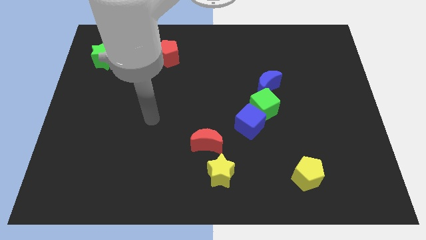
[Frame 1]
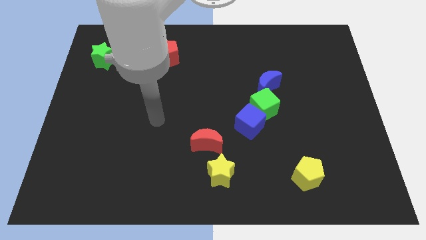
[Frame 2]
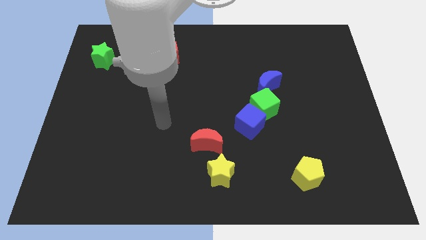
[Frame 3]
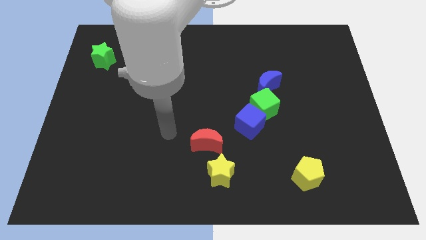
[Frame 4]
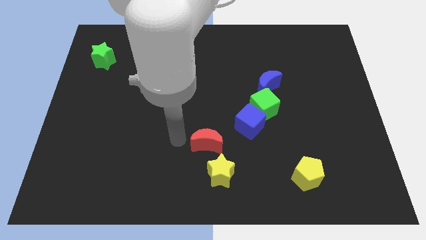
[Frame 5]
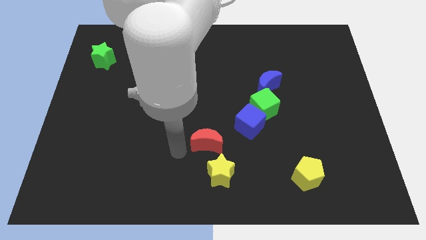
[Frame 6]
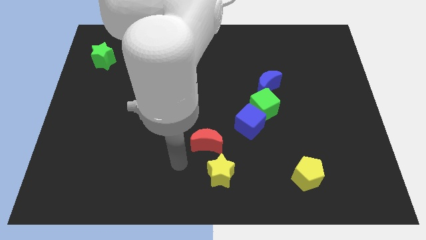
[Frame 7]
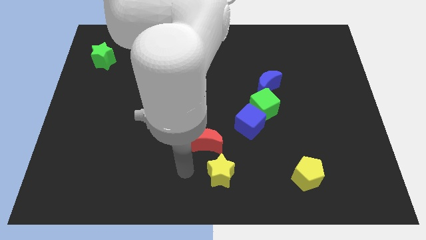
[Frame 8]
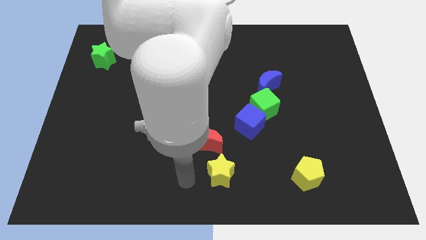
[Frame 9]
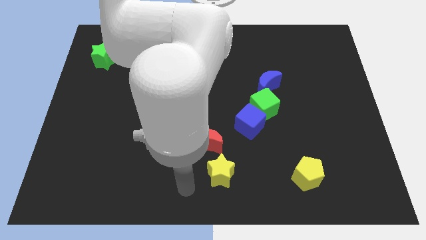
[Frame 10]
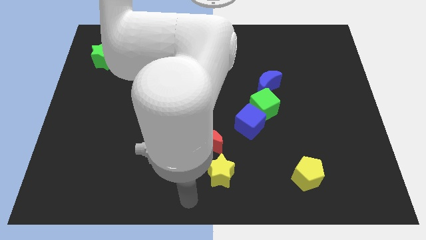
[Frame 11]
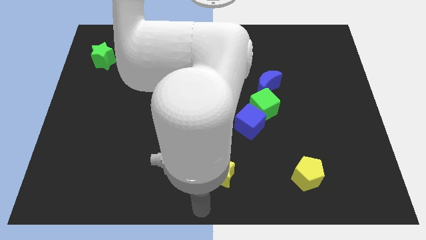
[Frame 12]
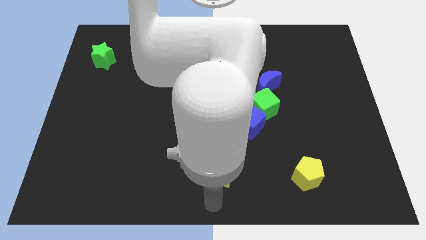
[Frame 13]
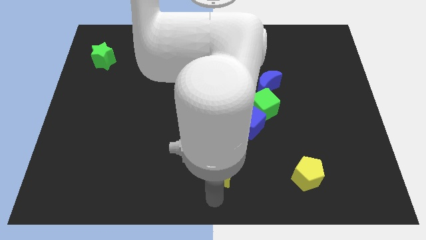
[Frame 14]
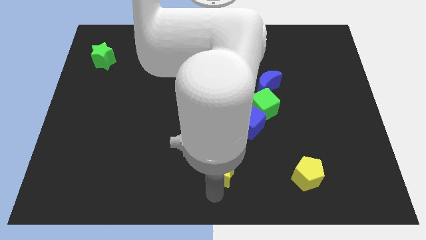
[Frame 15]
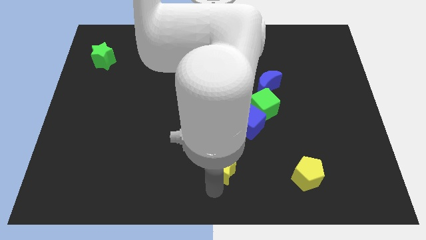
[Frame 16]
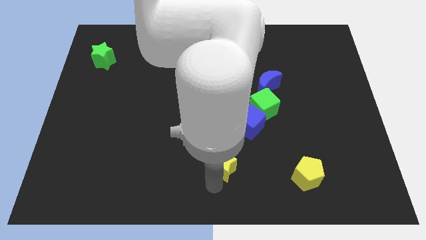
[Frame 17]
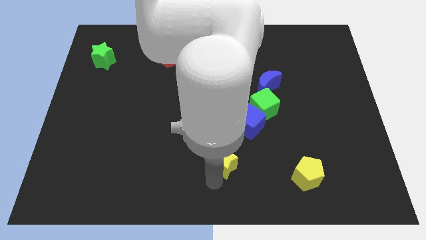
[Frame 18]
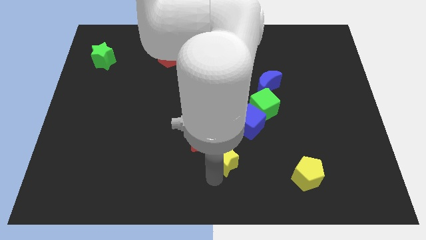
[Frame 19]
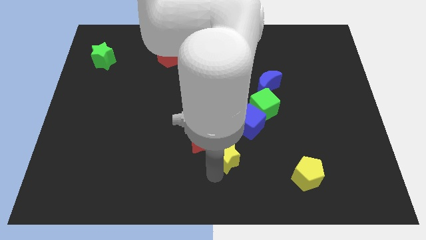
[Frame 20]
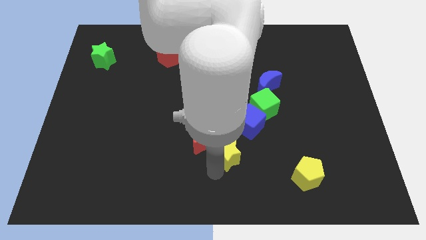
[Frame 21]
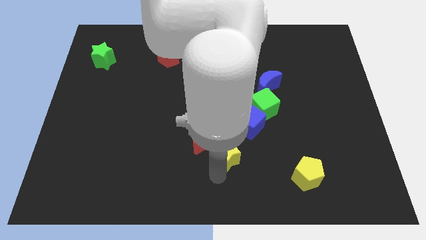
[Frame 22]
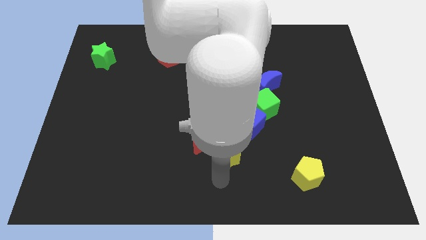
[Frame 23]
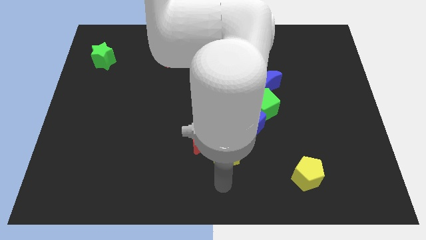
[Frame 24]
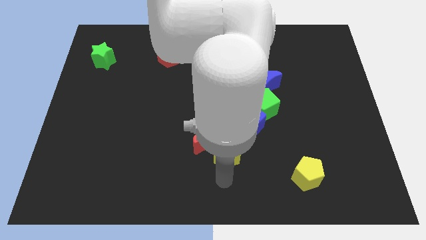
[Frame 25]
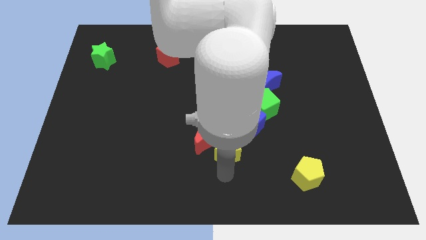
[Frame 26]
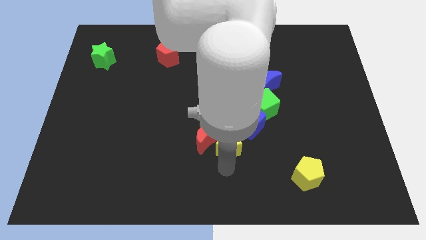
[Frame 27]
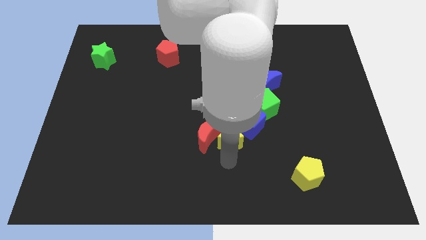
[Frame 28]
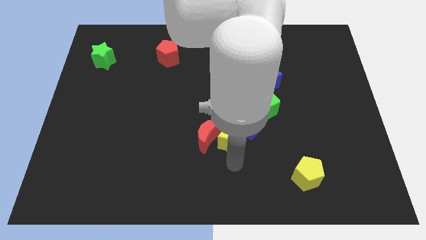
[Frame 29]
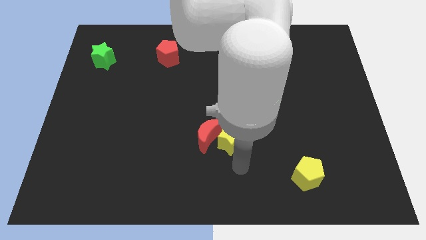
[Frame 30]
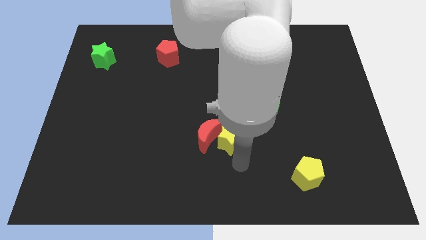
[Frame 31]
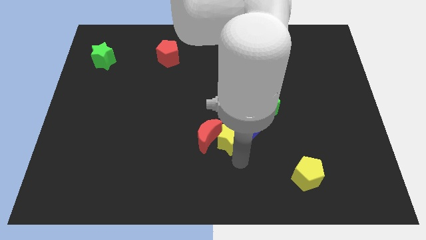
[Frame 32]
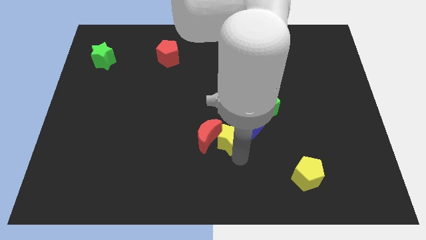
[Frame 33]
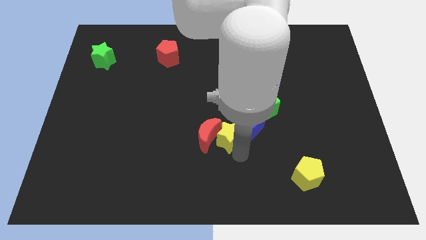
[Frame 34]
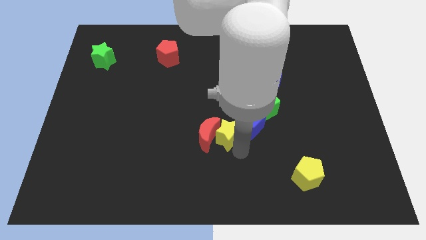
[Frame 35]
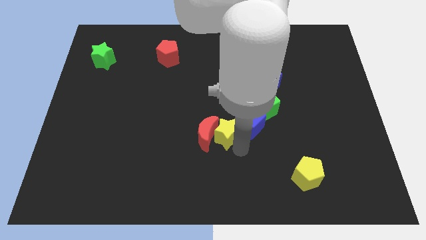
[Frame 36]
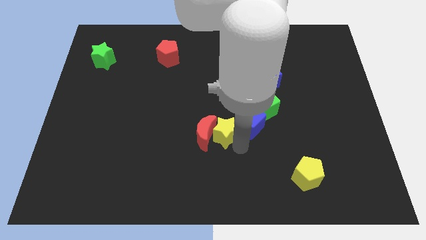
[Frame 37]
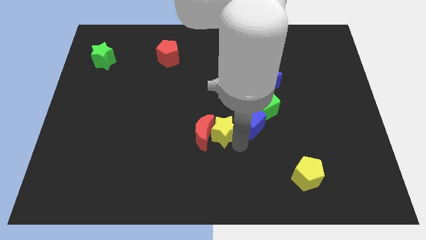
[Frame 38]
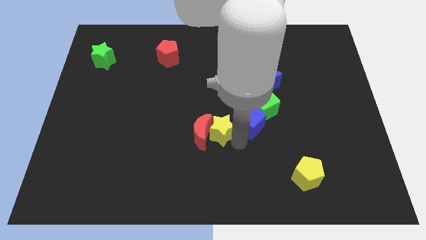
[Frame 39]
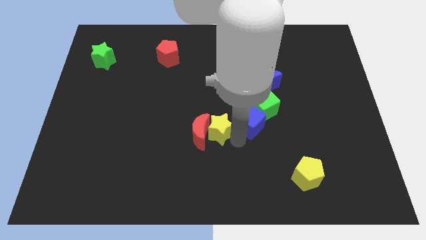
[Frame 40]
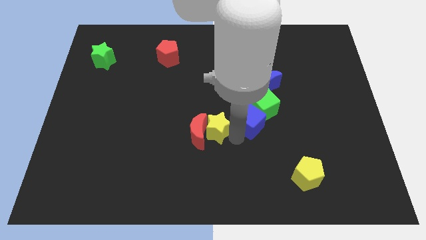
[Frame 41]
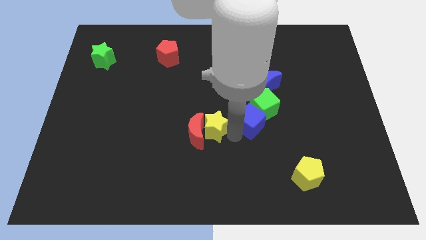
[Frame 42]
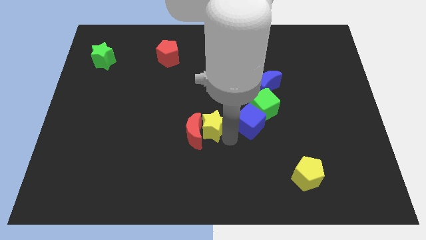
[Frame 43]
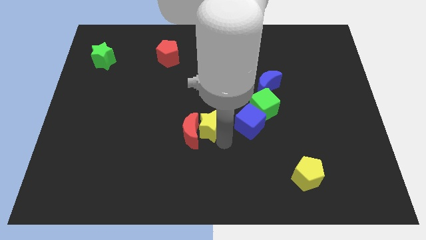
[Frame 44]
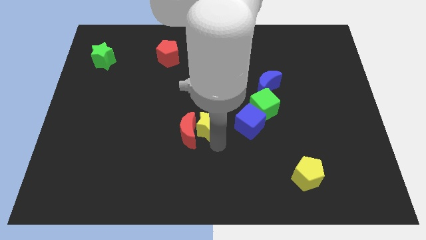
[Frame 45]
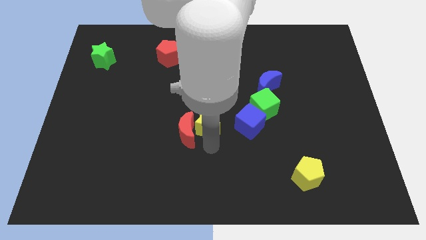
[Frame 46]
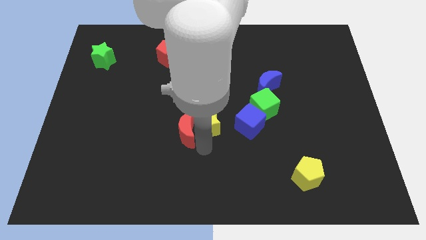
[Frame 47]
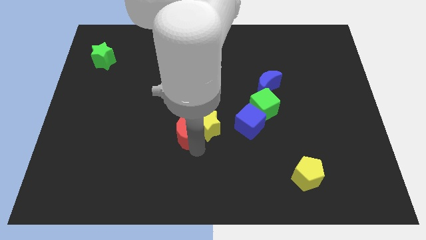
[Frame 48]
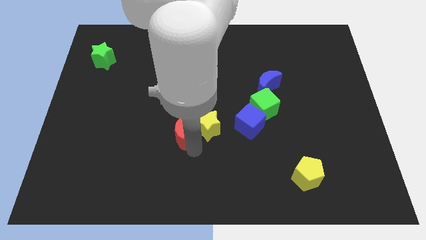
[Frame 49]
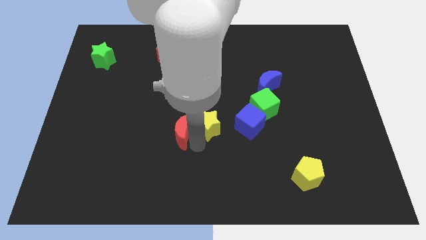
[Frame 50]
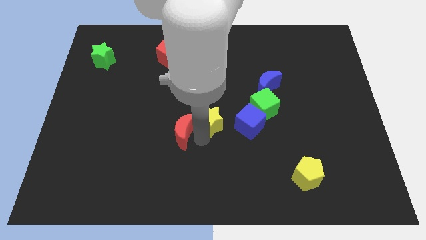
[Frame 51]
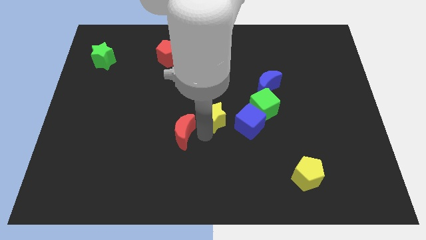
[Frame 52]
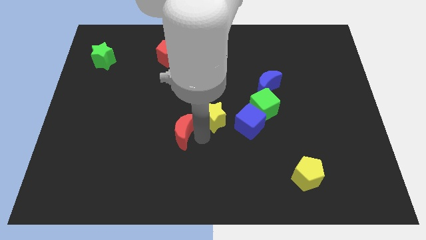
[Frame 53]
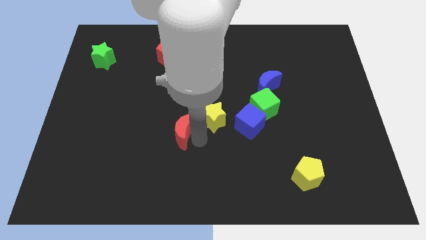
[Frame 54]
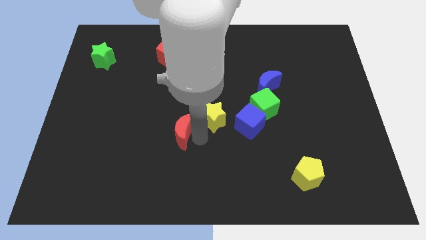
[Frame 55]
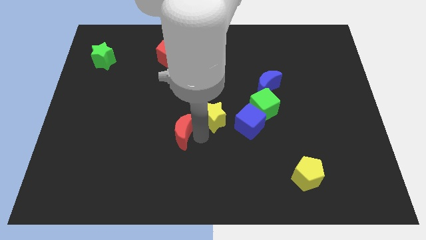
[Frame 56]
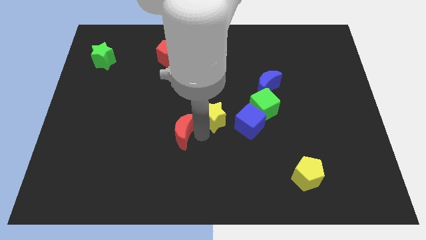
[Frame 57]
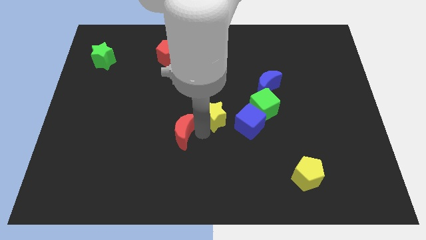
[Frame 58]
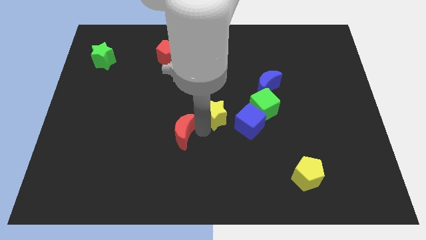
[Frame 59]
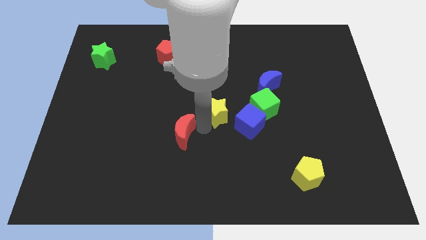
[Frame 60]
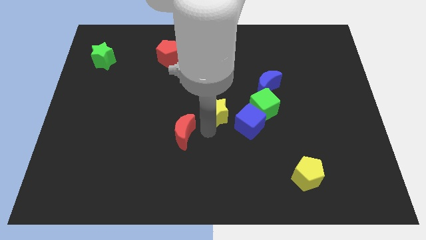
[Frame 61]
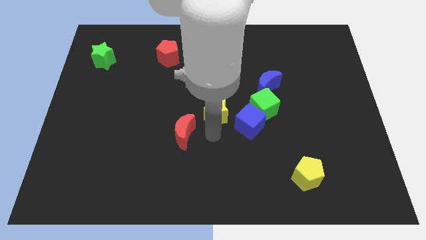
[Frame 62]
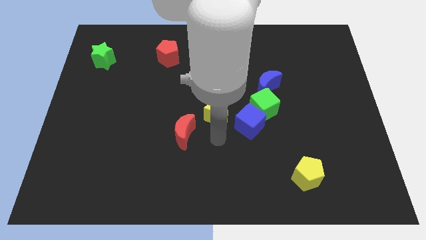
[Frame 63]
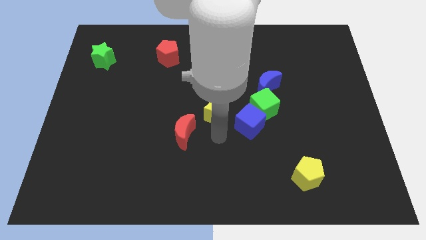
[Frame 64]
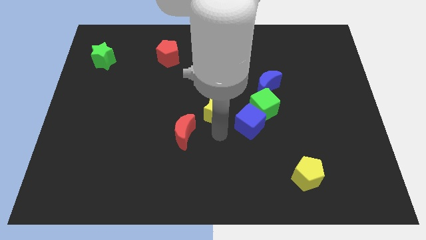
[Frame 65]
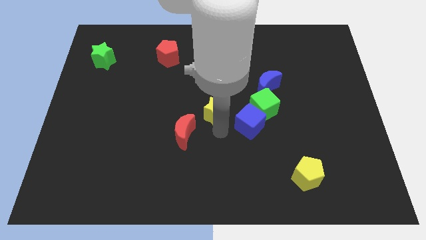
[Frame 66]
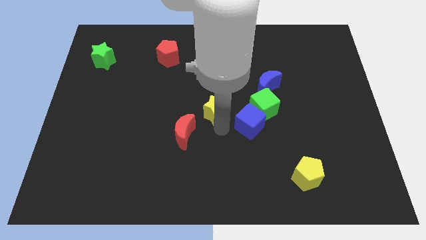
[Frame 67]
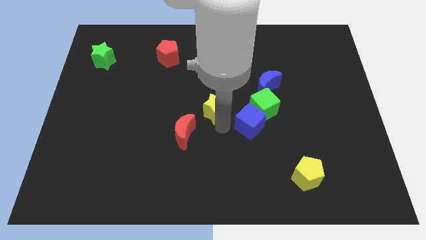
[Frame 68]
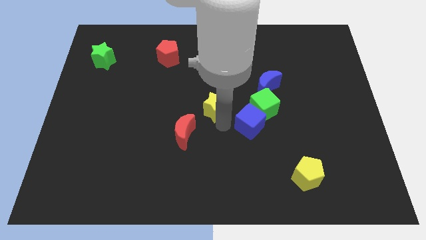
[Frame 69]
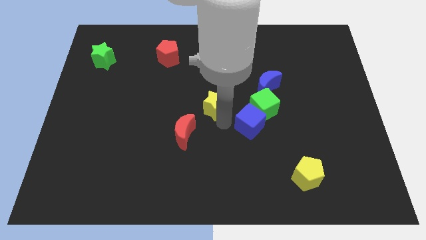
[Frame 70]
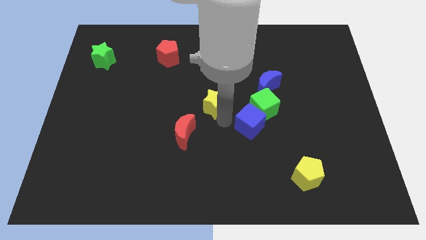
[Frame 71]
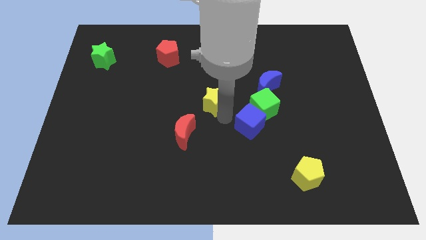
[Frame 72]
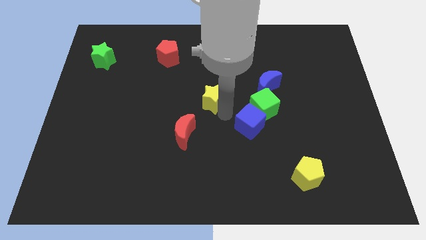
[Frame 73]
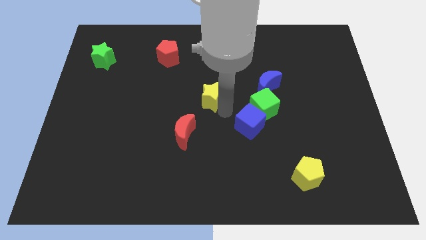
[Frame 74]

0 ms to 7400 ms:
push the yellow star up

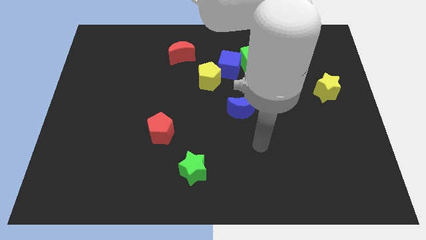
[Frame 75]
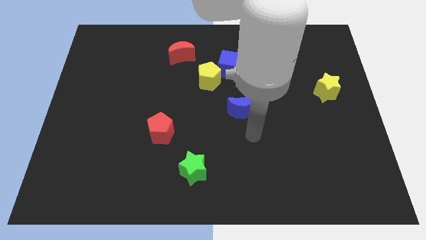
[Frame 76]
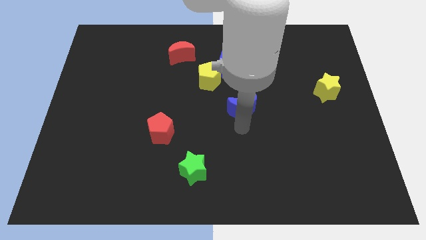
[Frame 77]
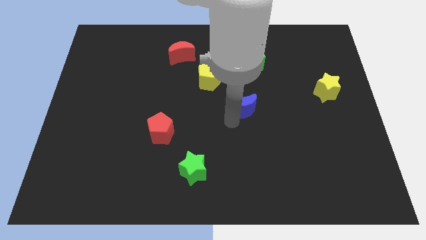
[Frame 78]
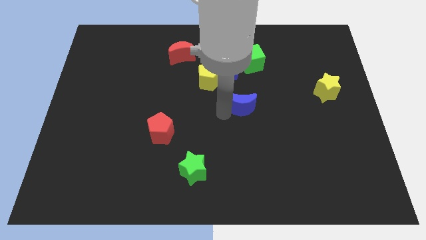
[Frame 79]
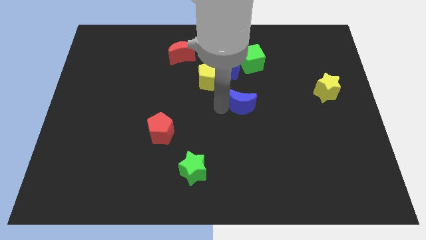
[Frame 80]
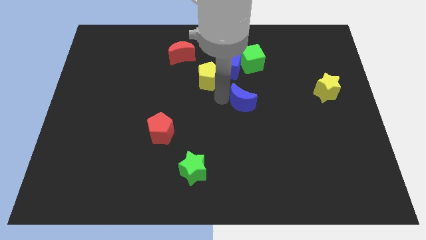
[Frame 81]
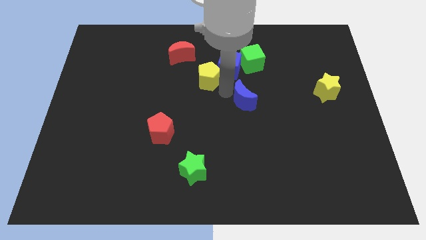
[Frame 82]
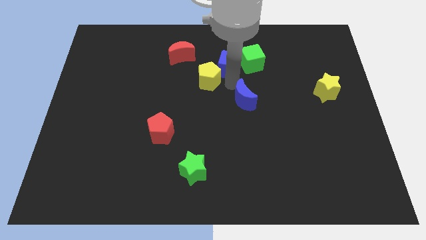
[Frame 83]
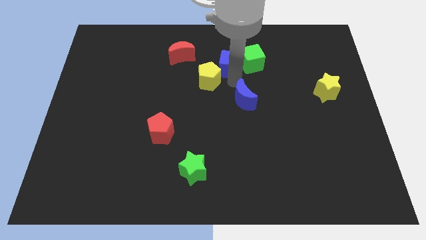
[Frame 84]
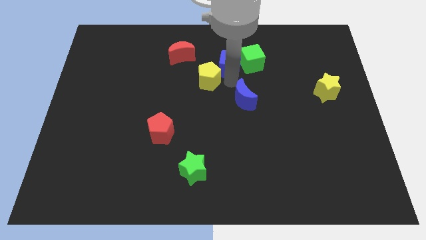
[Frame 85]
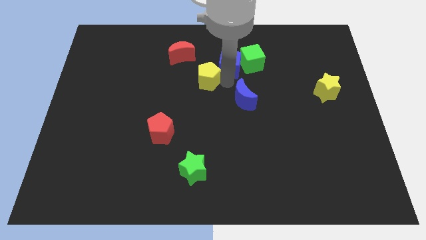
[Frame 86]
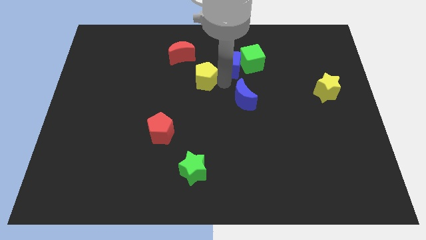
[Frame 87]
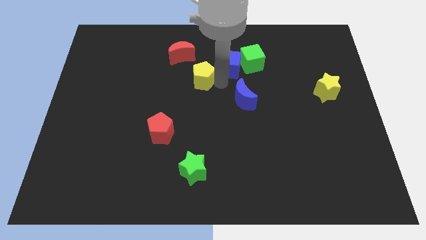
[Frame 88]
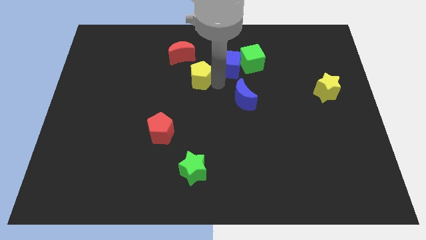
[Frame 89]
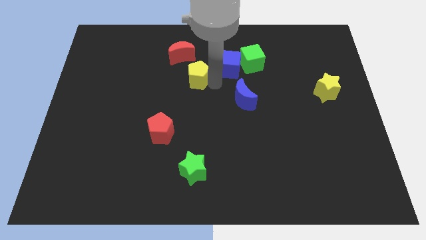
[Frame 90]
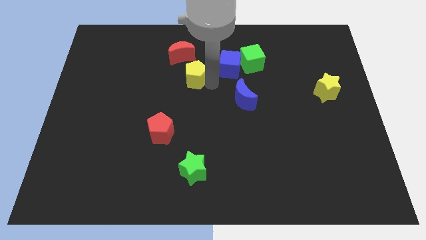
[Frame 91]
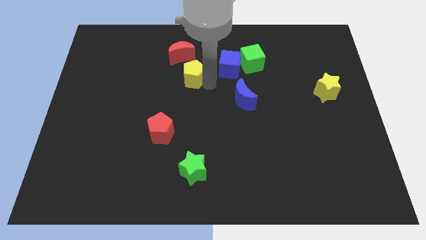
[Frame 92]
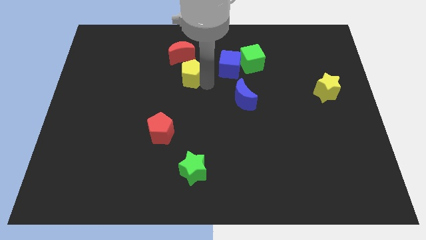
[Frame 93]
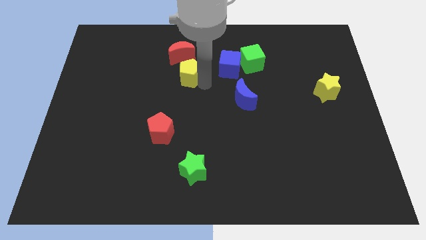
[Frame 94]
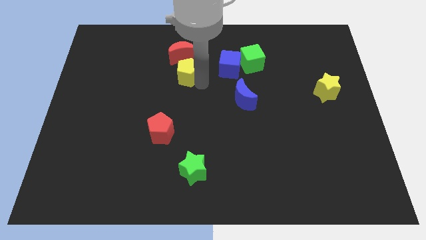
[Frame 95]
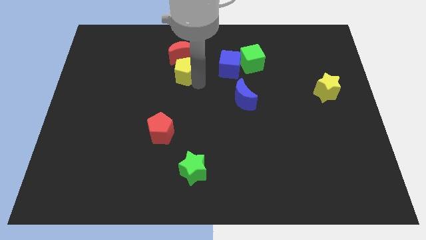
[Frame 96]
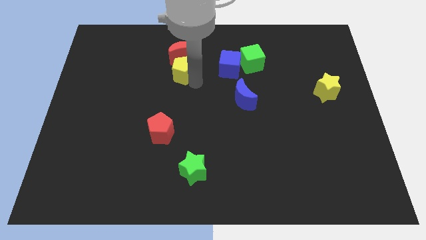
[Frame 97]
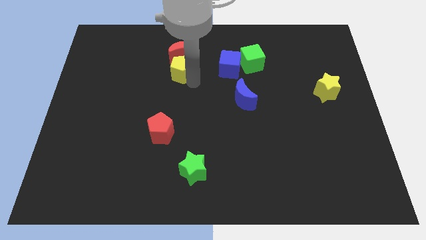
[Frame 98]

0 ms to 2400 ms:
slide the yellow pentagon a little left
